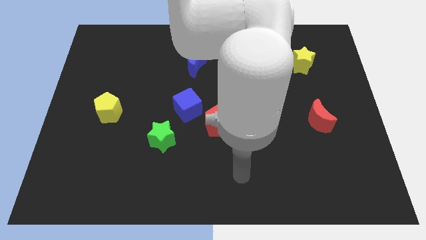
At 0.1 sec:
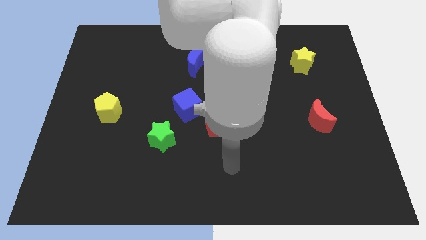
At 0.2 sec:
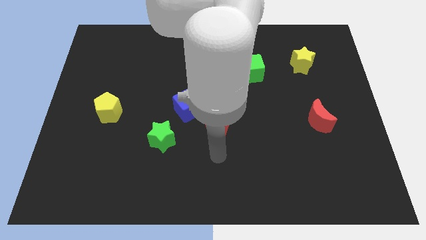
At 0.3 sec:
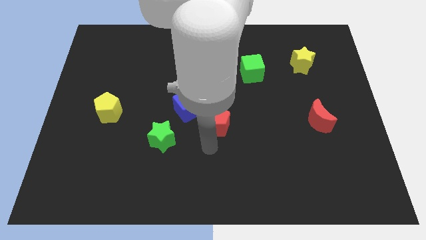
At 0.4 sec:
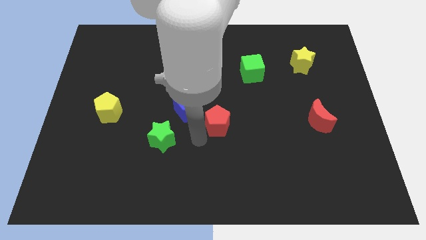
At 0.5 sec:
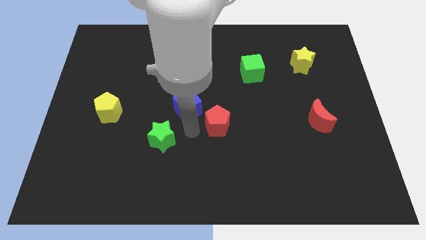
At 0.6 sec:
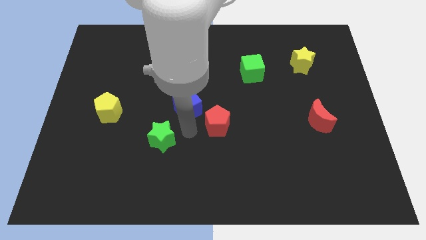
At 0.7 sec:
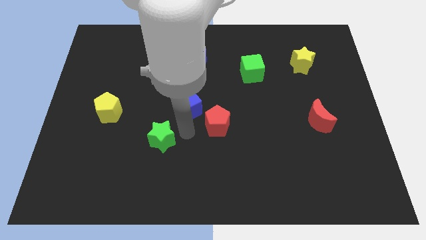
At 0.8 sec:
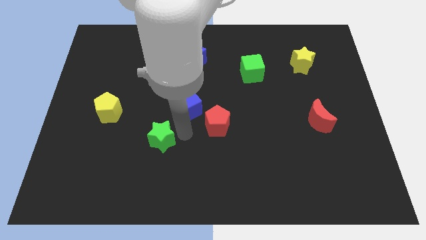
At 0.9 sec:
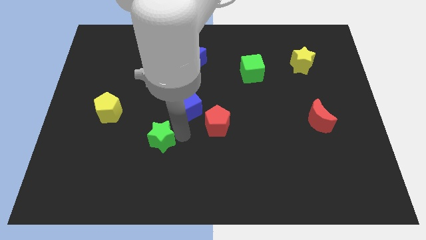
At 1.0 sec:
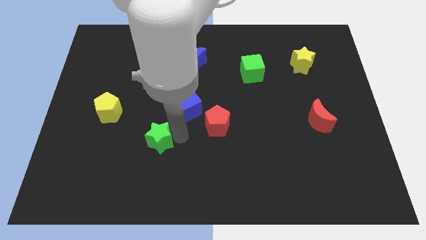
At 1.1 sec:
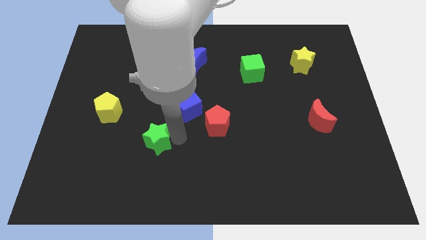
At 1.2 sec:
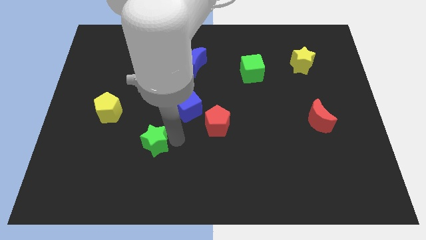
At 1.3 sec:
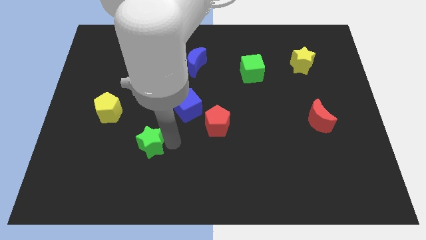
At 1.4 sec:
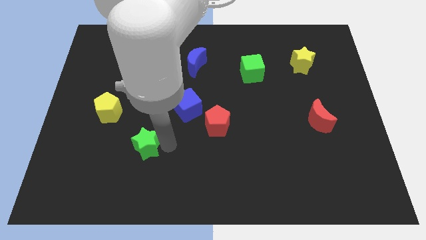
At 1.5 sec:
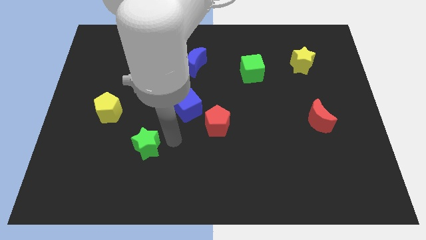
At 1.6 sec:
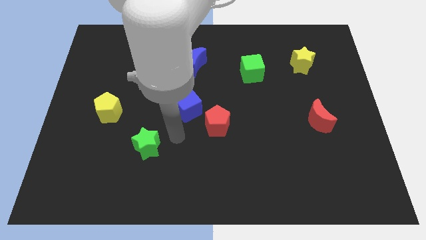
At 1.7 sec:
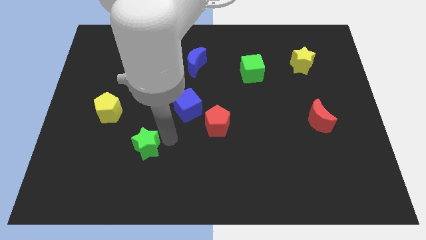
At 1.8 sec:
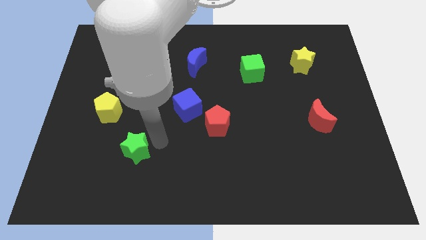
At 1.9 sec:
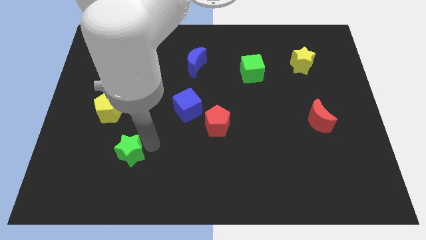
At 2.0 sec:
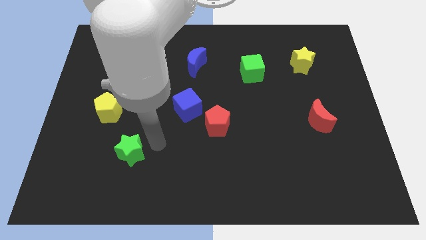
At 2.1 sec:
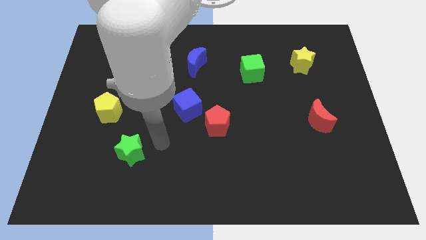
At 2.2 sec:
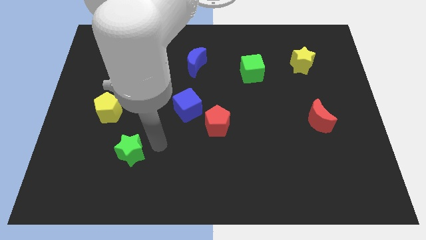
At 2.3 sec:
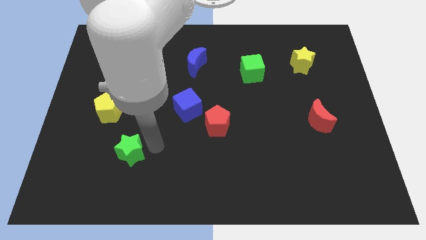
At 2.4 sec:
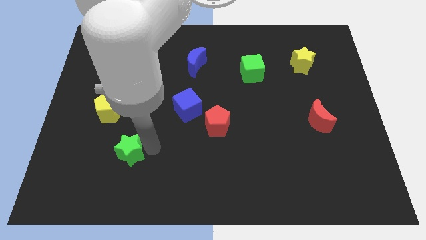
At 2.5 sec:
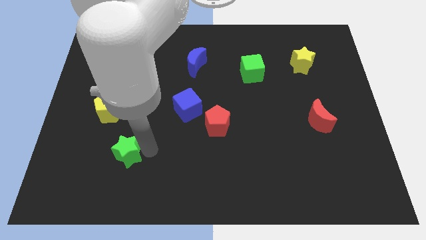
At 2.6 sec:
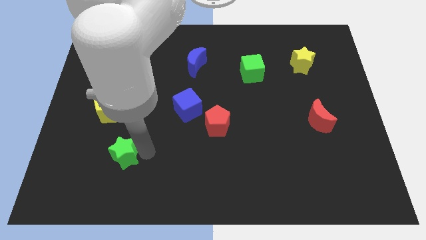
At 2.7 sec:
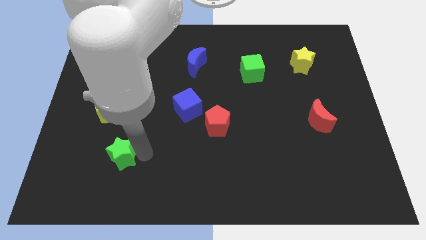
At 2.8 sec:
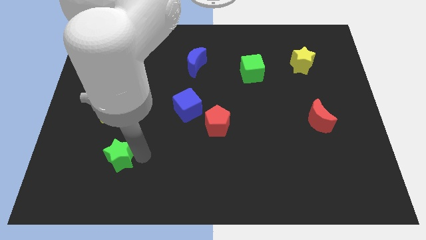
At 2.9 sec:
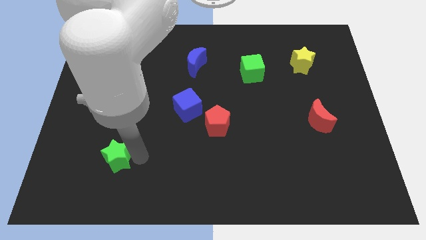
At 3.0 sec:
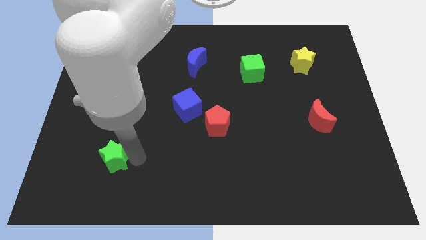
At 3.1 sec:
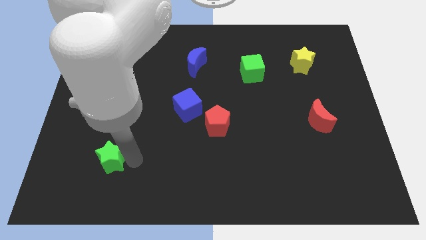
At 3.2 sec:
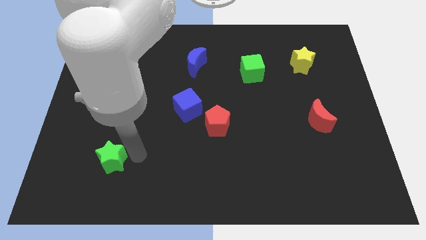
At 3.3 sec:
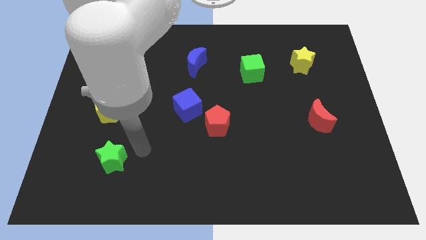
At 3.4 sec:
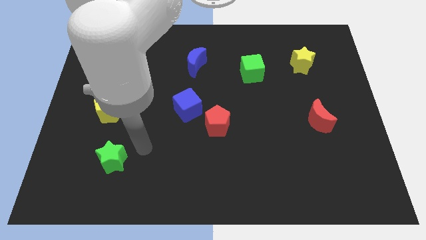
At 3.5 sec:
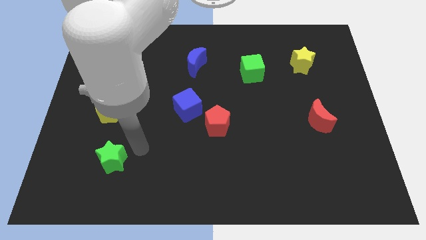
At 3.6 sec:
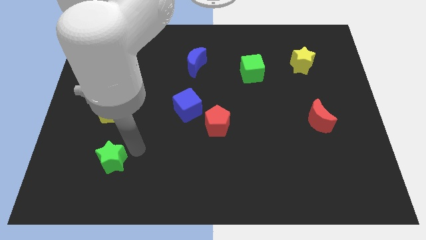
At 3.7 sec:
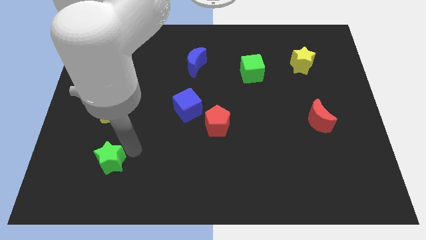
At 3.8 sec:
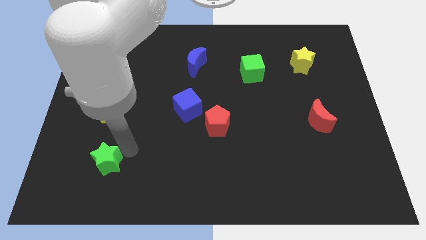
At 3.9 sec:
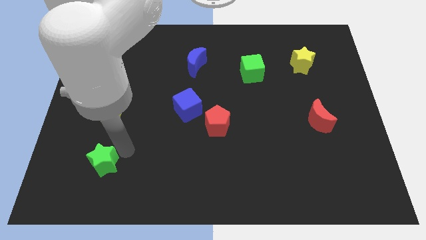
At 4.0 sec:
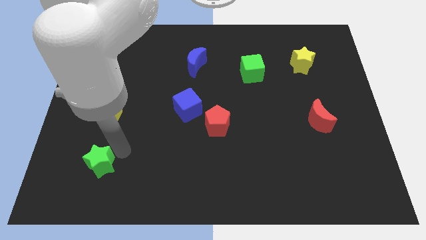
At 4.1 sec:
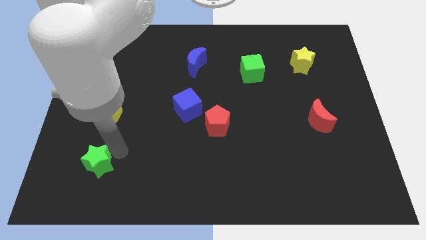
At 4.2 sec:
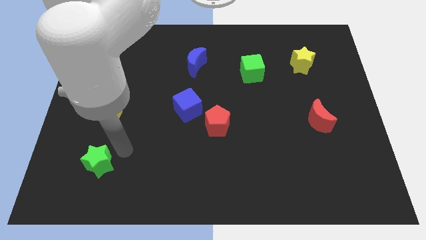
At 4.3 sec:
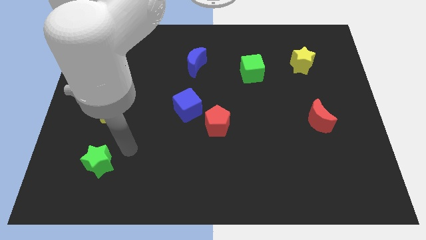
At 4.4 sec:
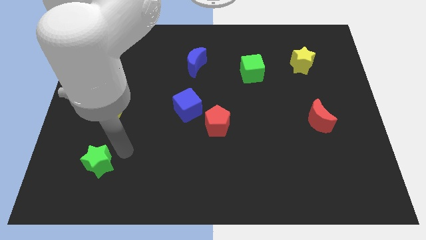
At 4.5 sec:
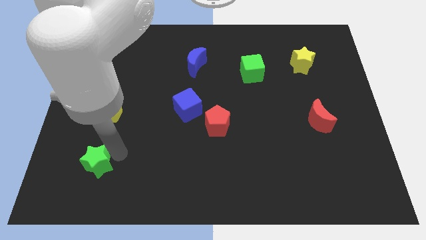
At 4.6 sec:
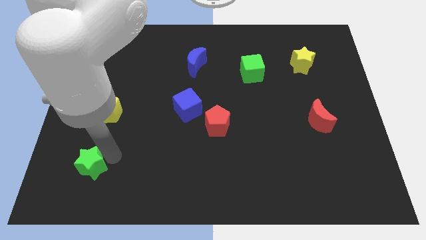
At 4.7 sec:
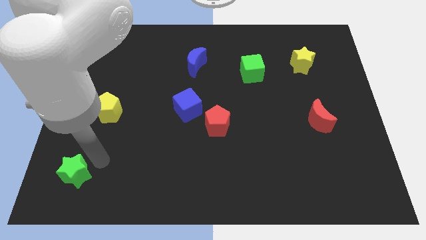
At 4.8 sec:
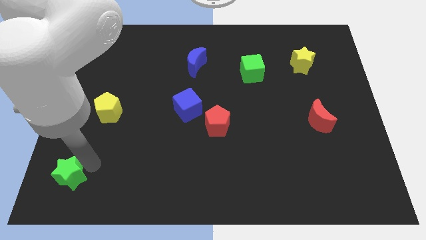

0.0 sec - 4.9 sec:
move the green star to the bottom left

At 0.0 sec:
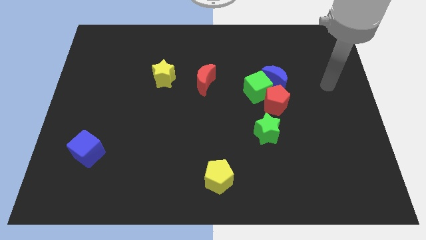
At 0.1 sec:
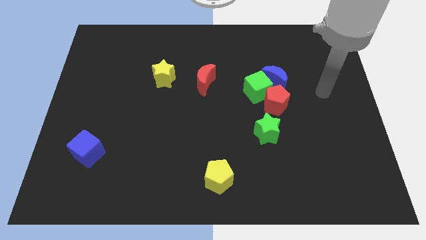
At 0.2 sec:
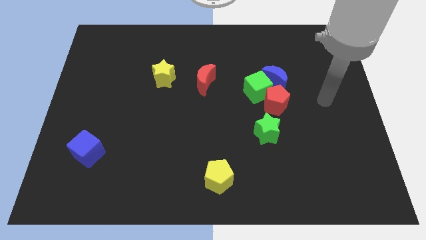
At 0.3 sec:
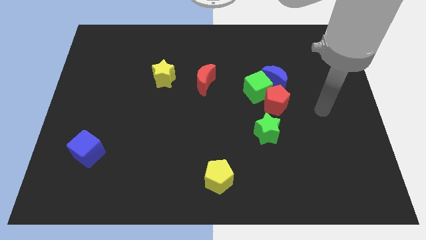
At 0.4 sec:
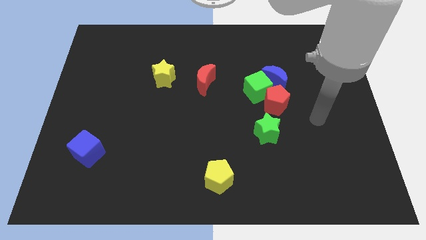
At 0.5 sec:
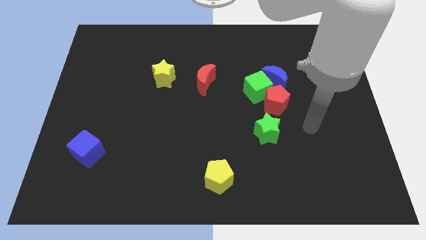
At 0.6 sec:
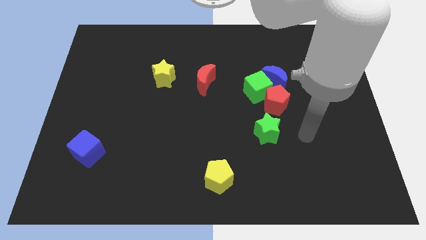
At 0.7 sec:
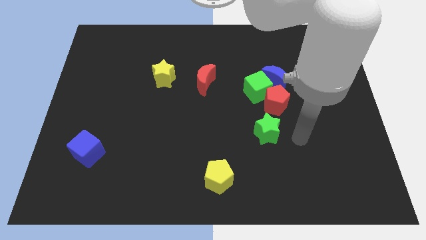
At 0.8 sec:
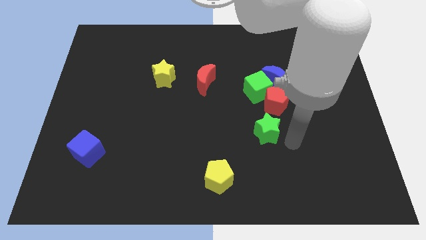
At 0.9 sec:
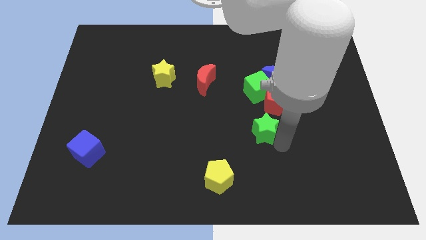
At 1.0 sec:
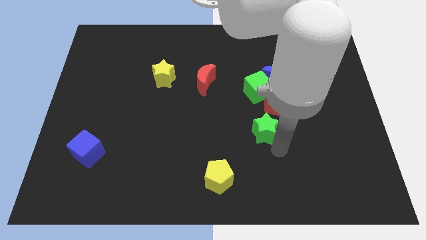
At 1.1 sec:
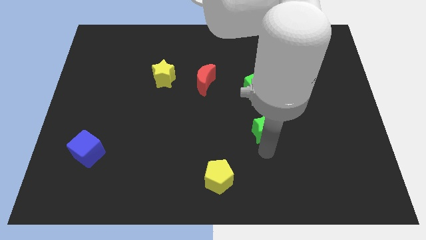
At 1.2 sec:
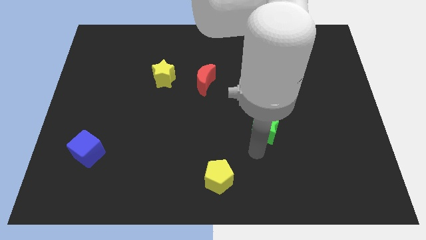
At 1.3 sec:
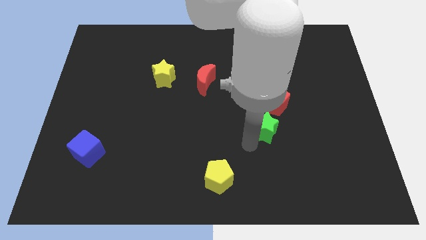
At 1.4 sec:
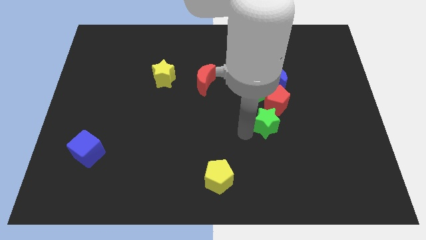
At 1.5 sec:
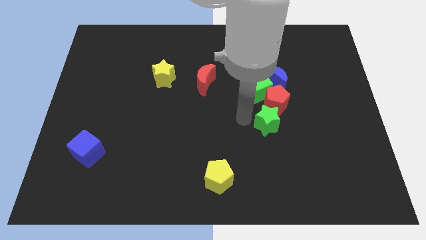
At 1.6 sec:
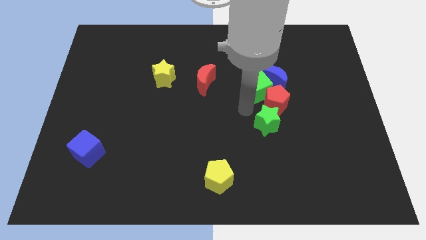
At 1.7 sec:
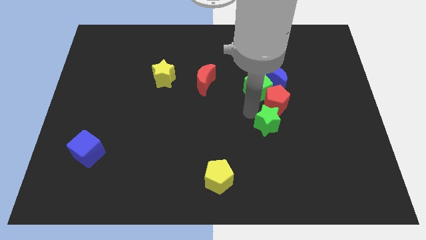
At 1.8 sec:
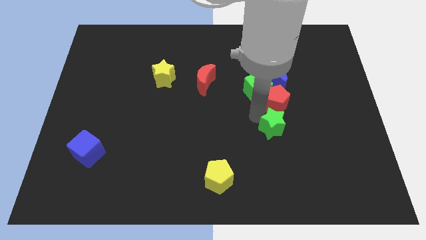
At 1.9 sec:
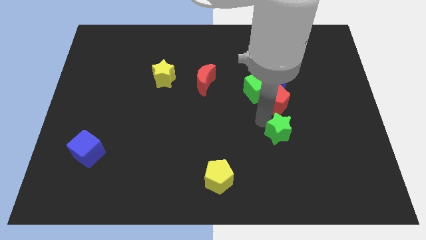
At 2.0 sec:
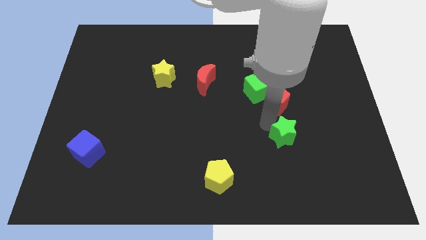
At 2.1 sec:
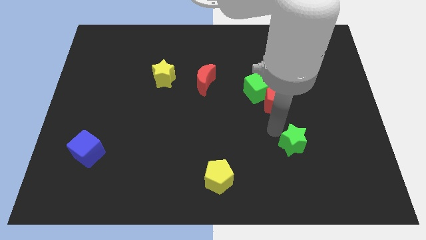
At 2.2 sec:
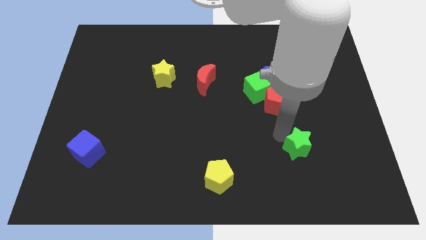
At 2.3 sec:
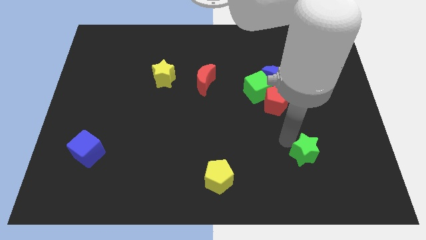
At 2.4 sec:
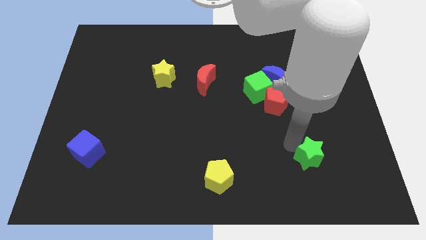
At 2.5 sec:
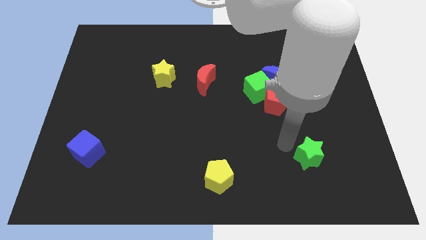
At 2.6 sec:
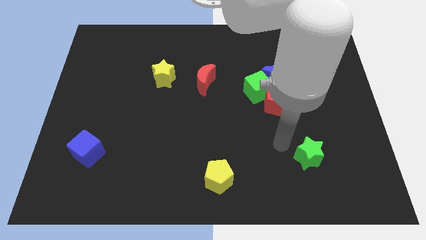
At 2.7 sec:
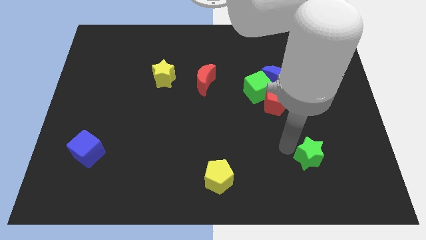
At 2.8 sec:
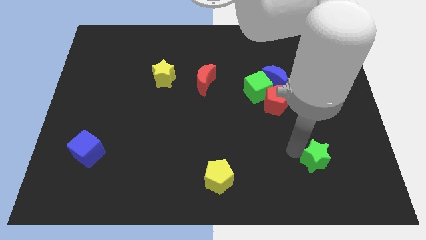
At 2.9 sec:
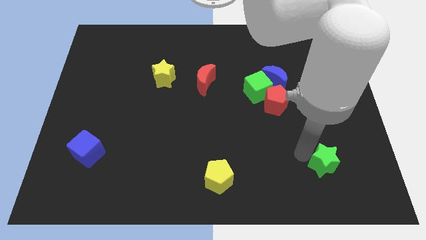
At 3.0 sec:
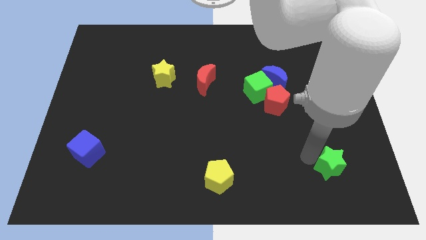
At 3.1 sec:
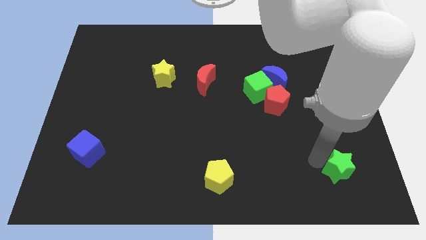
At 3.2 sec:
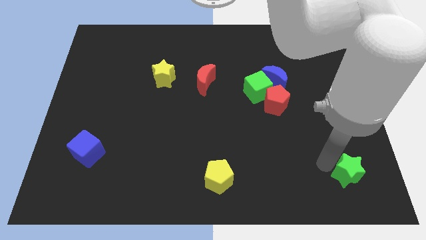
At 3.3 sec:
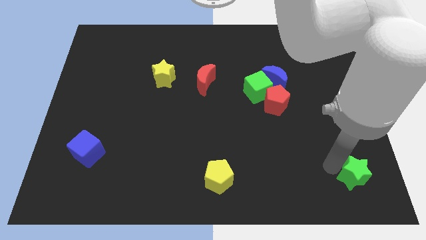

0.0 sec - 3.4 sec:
slide the green star to the lower right corner
